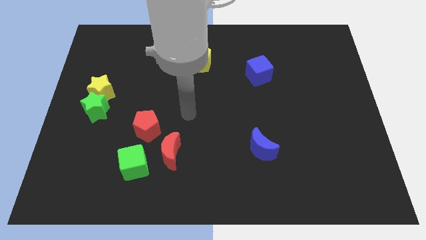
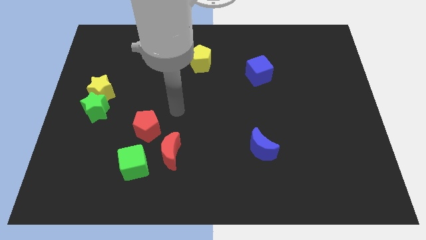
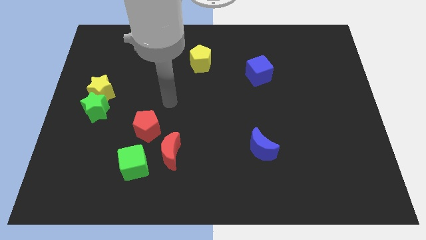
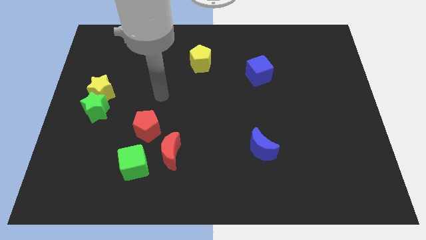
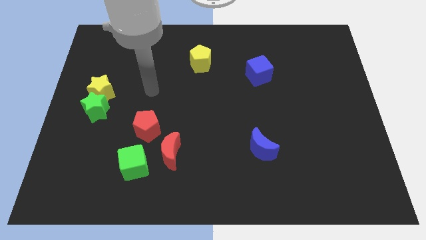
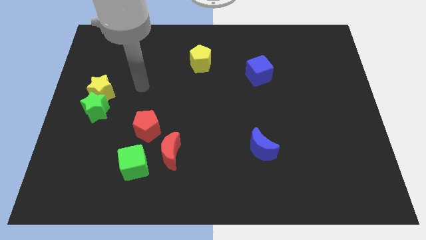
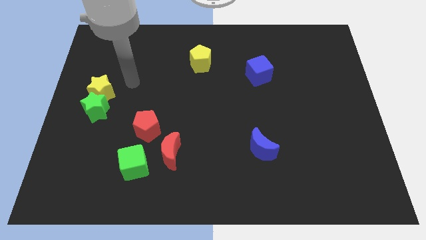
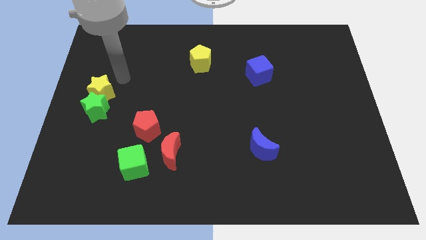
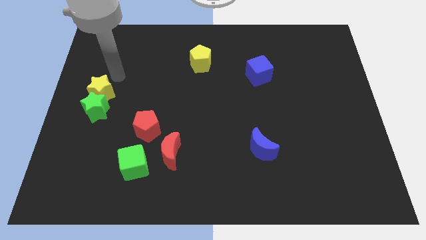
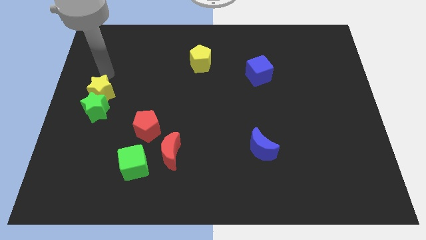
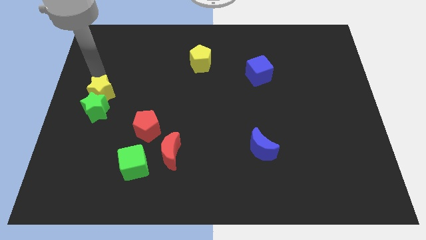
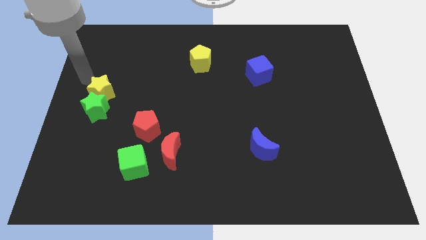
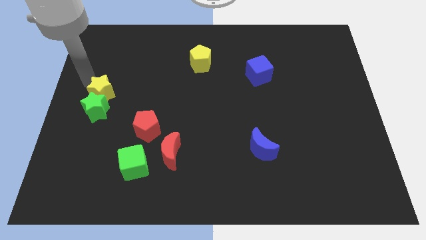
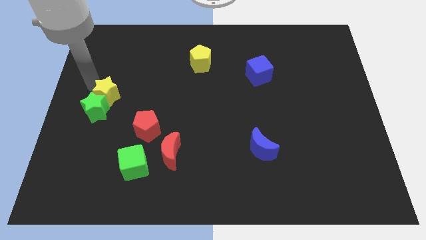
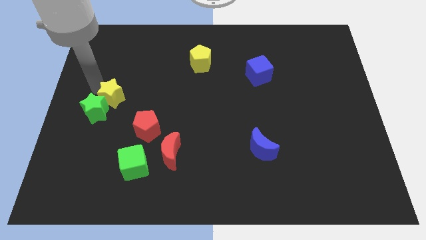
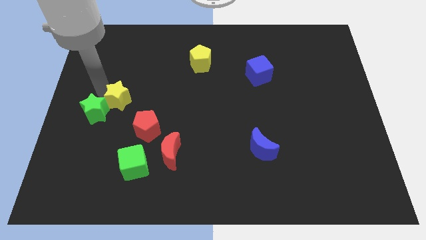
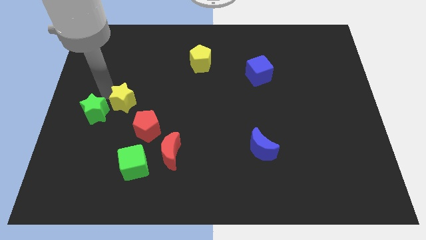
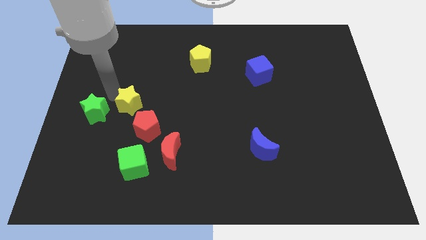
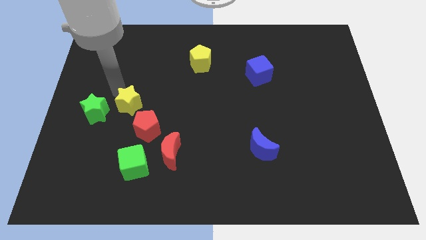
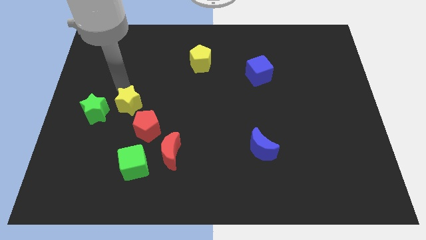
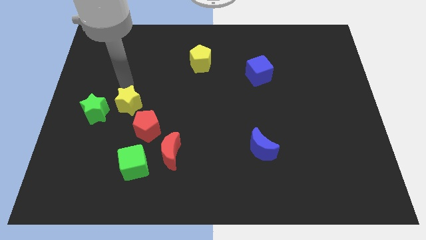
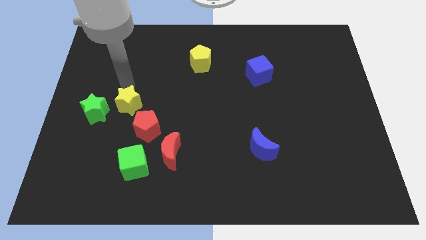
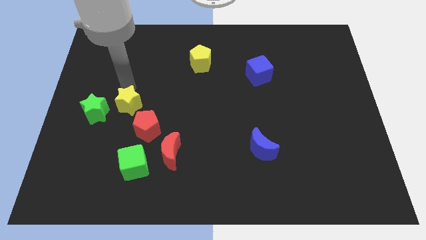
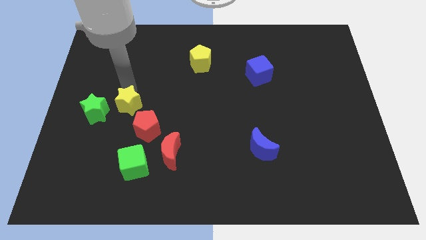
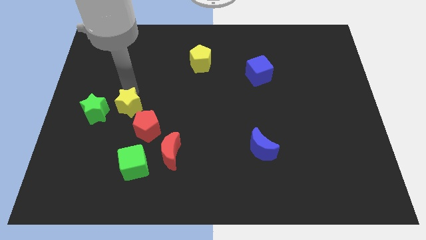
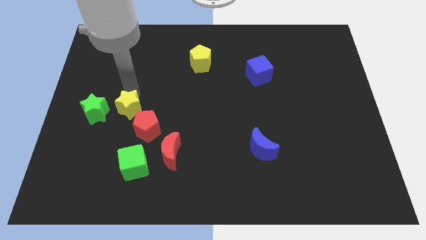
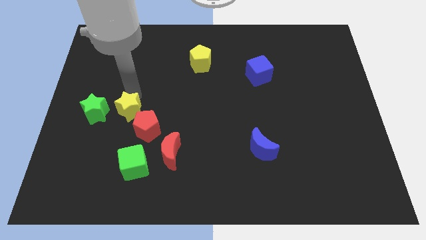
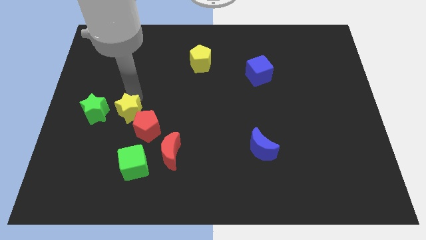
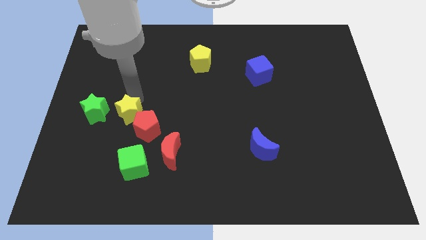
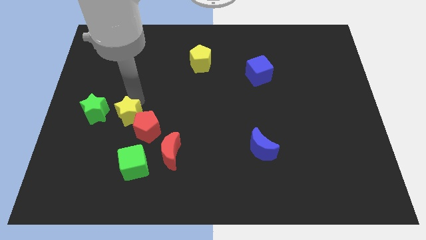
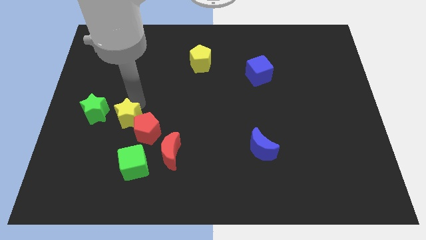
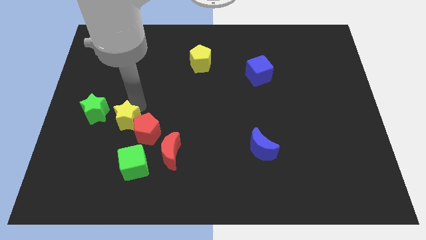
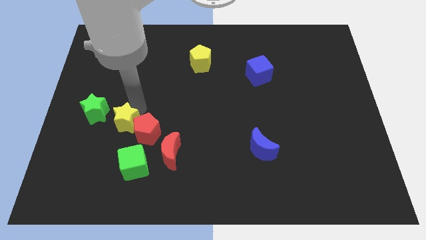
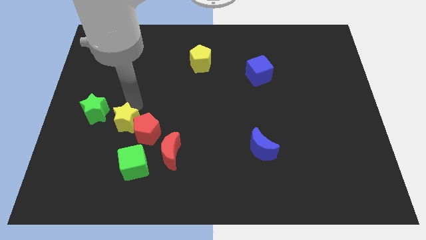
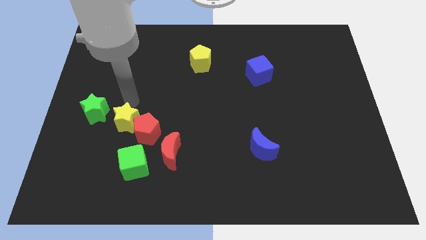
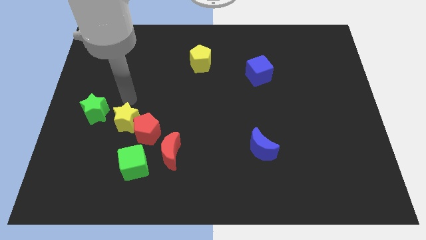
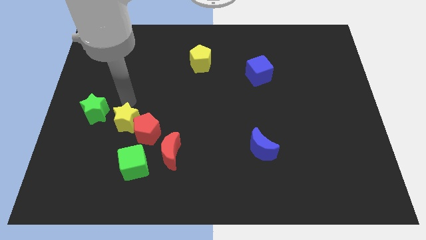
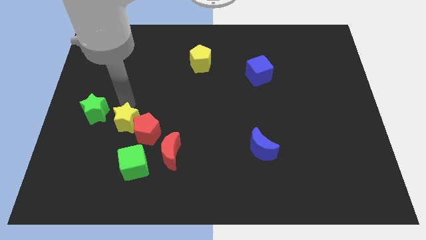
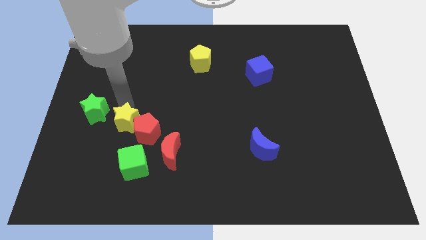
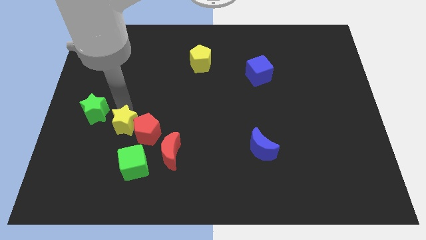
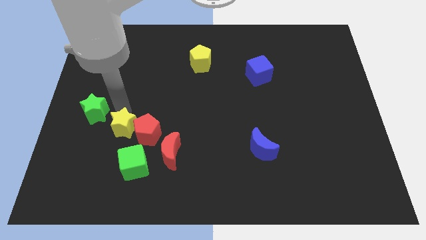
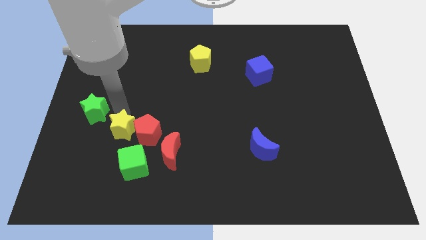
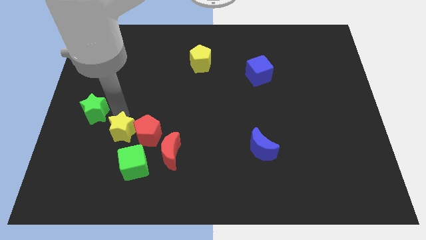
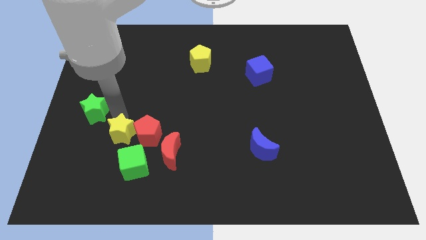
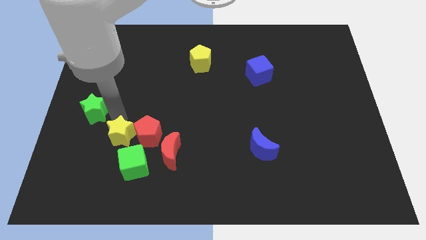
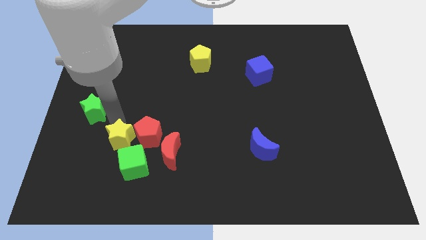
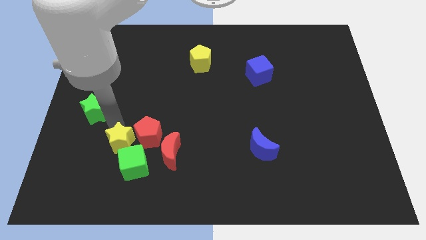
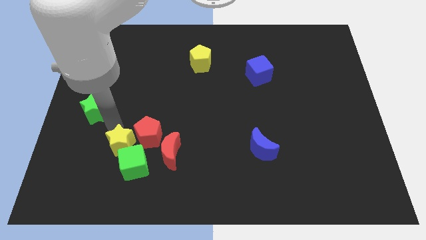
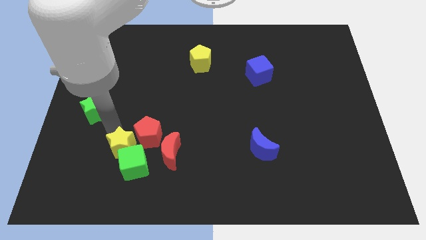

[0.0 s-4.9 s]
push the yellow star to the green cube
